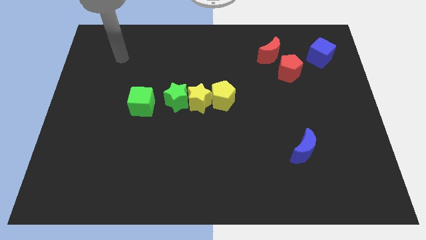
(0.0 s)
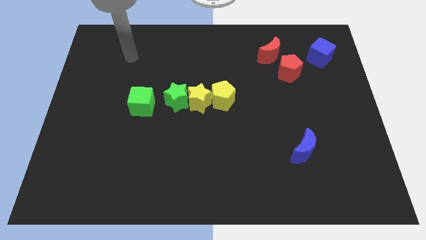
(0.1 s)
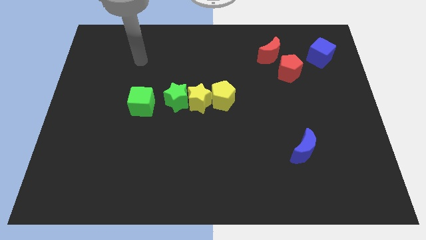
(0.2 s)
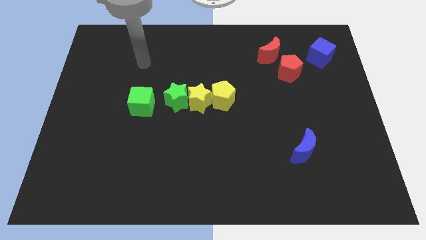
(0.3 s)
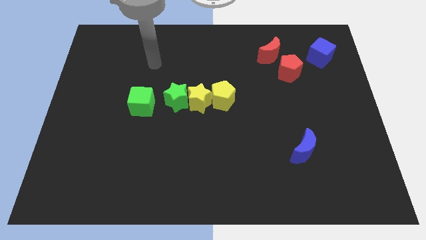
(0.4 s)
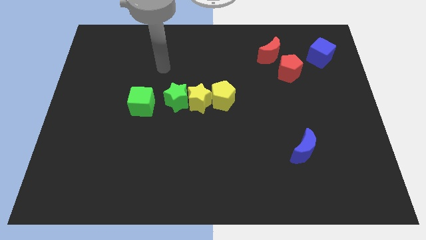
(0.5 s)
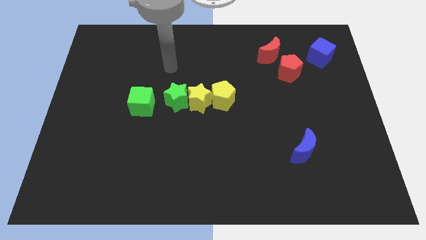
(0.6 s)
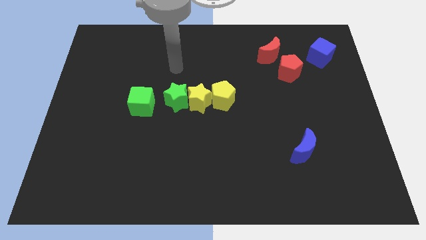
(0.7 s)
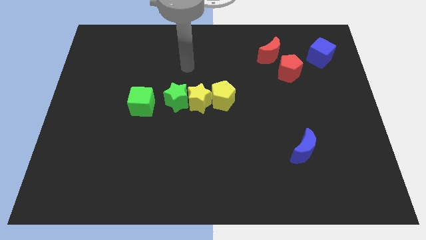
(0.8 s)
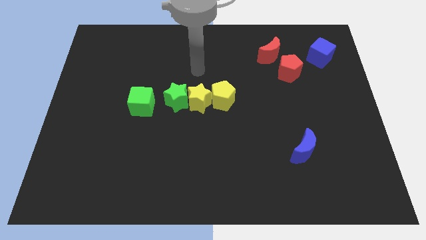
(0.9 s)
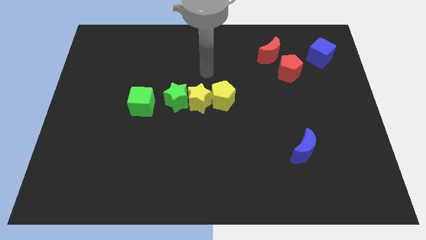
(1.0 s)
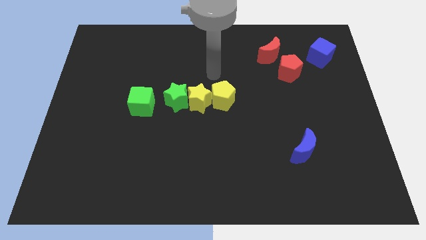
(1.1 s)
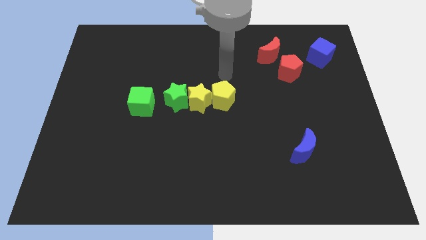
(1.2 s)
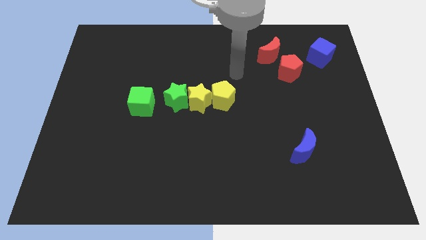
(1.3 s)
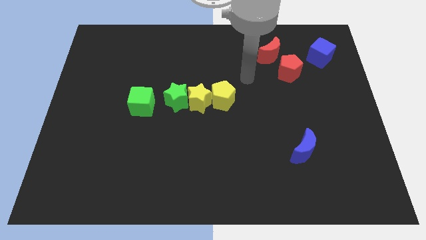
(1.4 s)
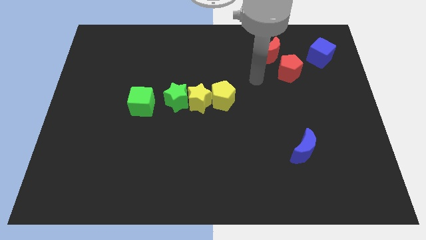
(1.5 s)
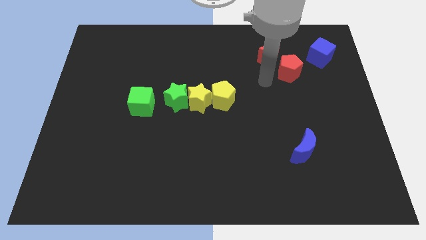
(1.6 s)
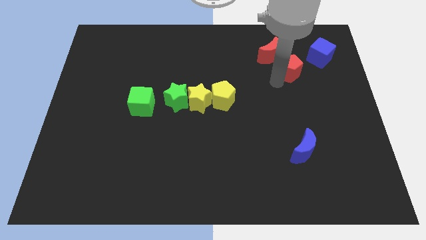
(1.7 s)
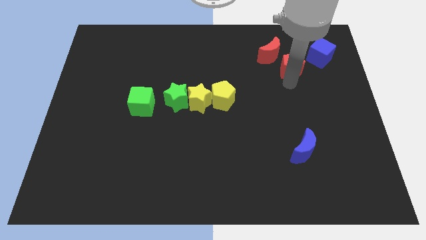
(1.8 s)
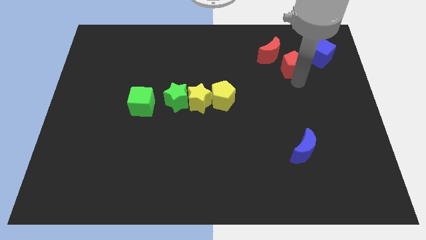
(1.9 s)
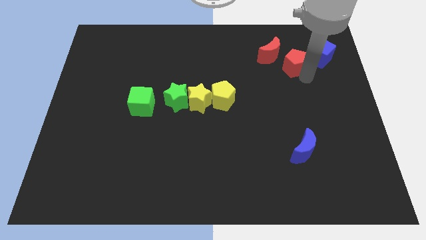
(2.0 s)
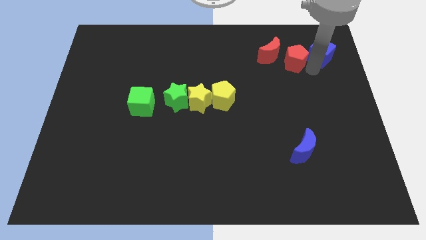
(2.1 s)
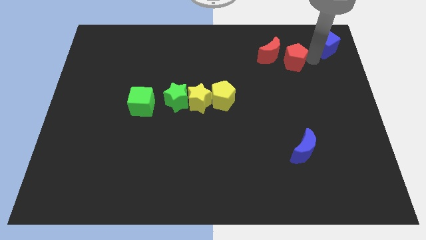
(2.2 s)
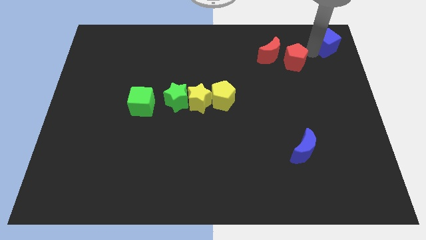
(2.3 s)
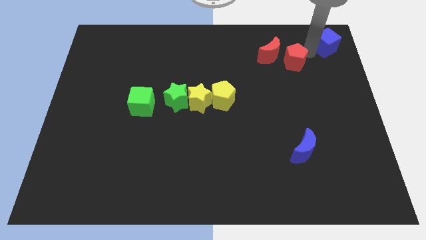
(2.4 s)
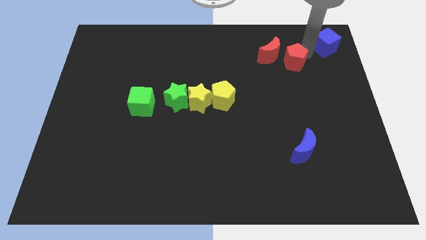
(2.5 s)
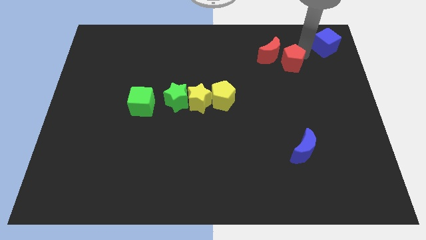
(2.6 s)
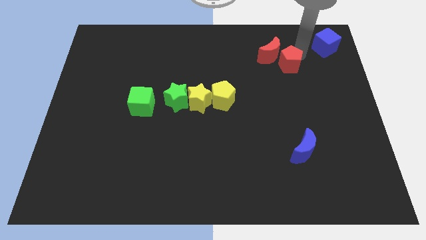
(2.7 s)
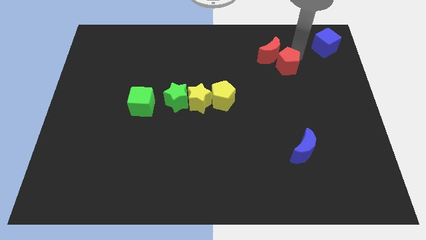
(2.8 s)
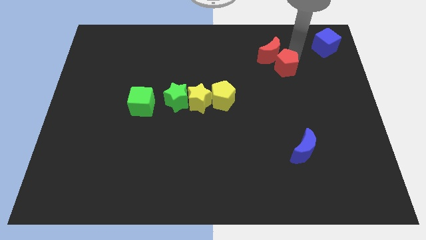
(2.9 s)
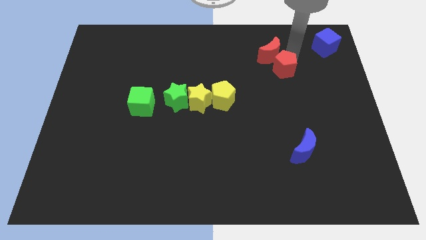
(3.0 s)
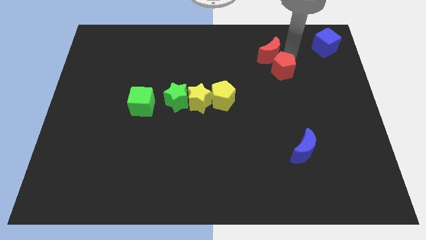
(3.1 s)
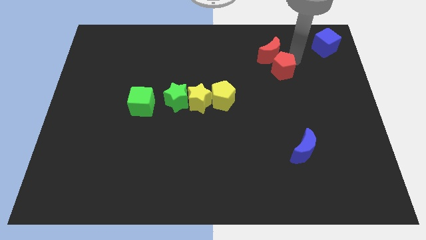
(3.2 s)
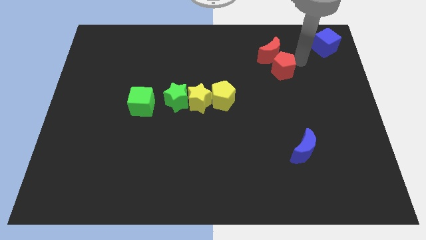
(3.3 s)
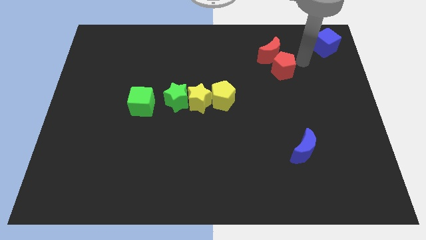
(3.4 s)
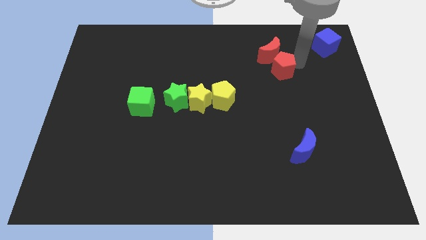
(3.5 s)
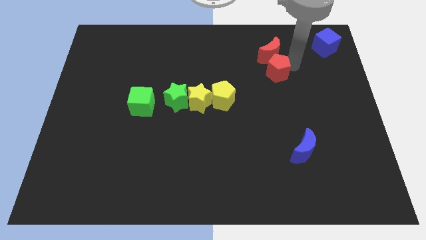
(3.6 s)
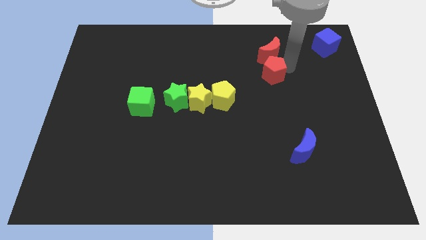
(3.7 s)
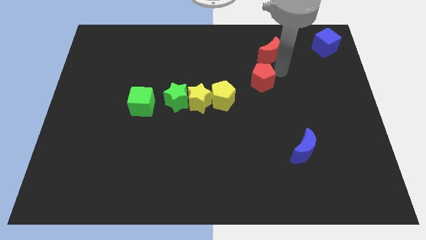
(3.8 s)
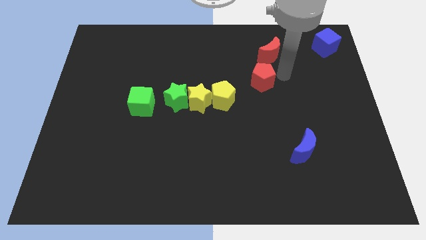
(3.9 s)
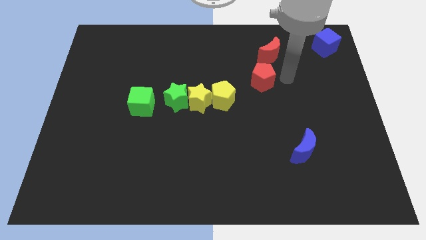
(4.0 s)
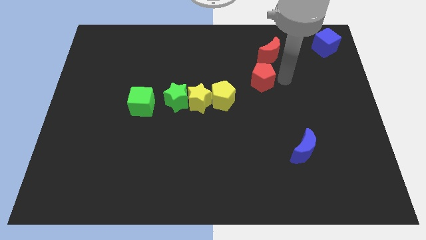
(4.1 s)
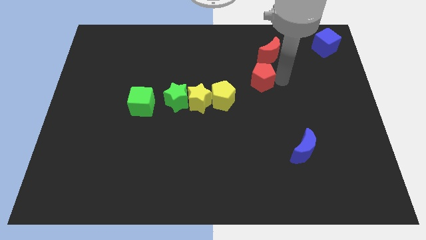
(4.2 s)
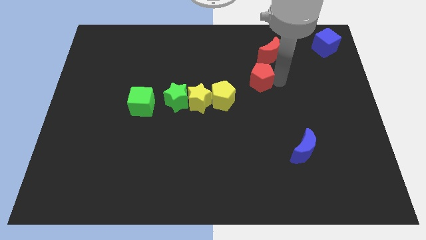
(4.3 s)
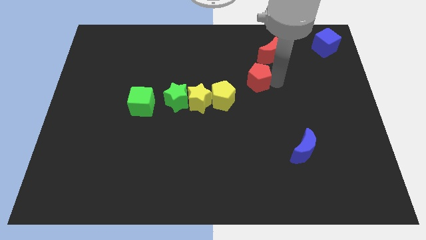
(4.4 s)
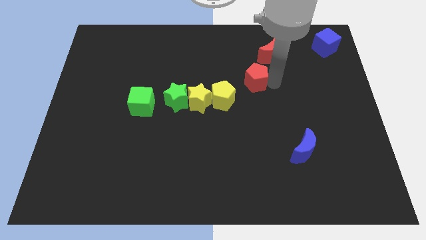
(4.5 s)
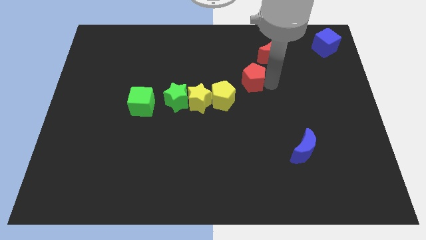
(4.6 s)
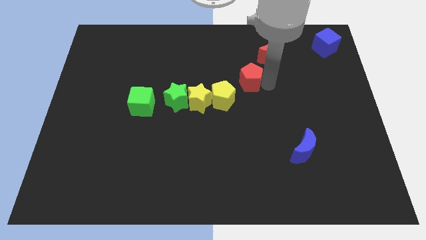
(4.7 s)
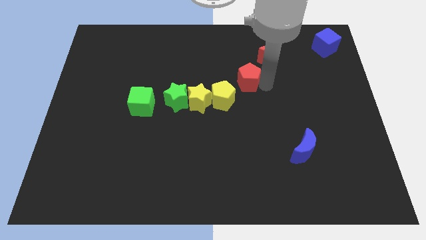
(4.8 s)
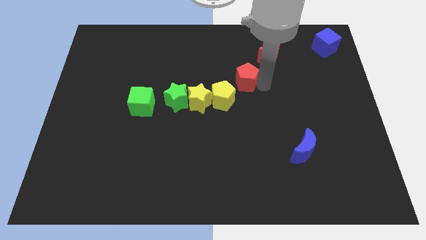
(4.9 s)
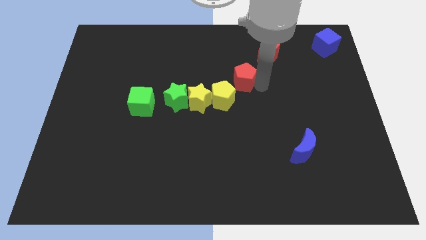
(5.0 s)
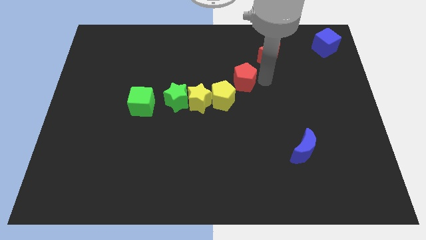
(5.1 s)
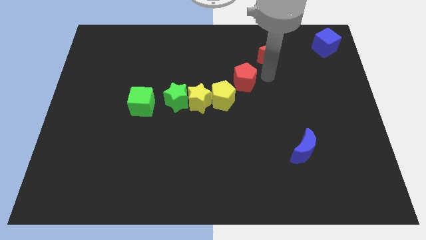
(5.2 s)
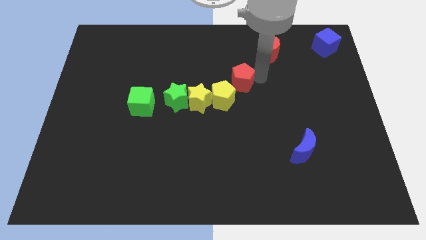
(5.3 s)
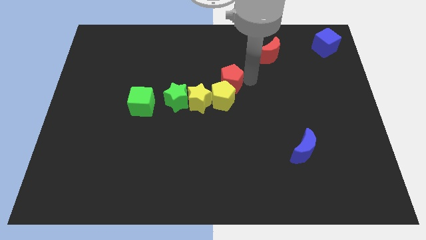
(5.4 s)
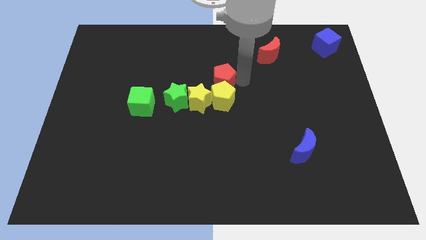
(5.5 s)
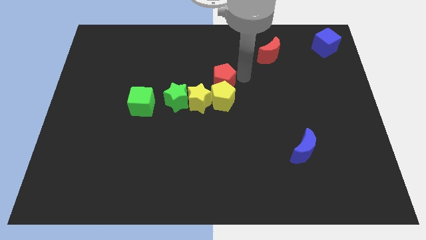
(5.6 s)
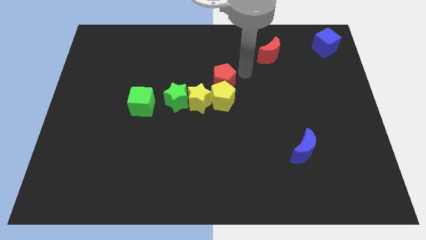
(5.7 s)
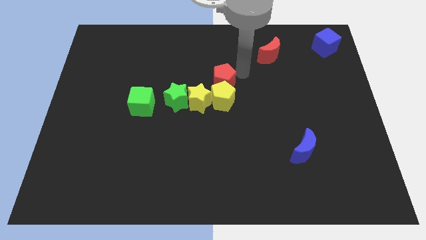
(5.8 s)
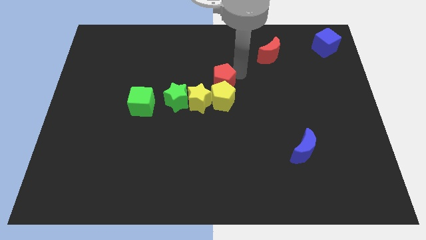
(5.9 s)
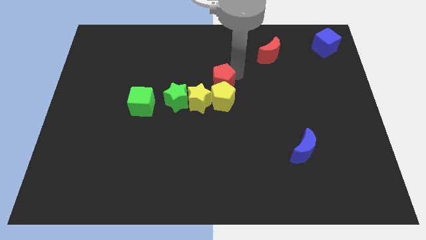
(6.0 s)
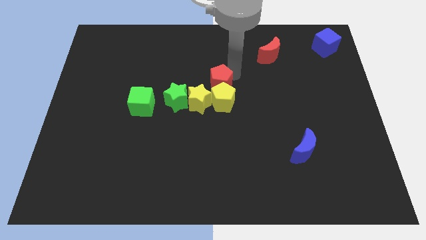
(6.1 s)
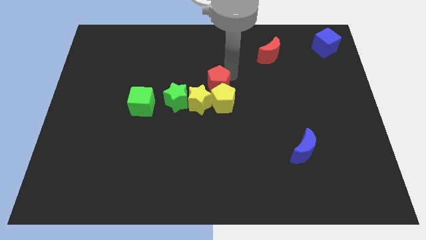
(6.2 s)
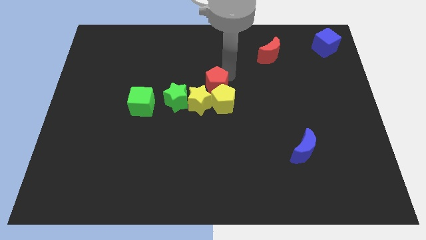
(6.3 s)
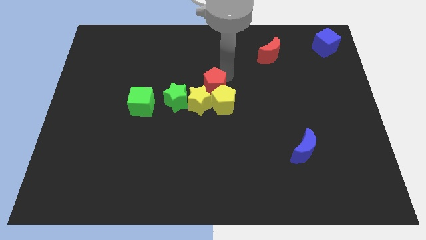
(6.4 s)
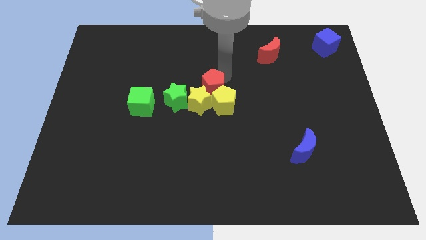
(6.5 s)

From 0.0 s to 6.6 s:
move the red pentagon close to the yellow star

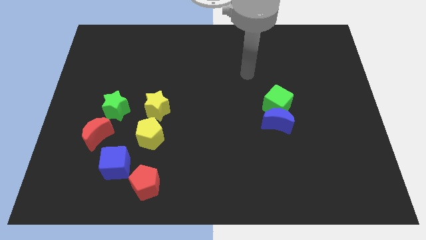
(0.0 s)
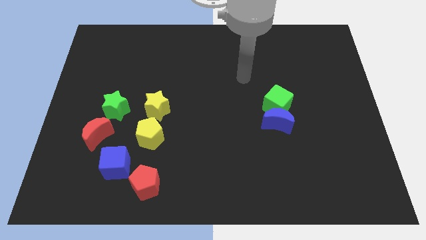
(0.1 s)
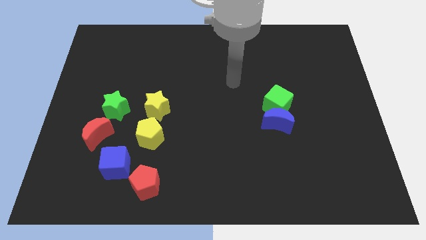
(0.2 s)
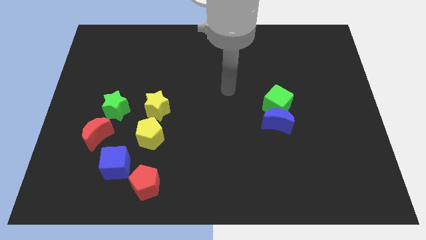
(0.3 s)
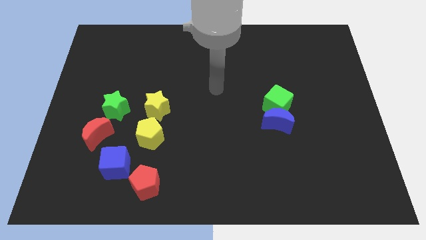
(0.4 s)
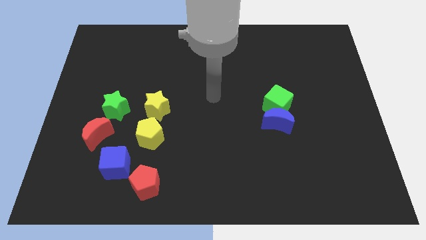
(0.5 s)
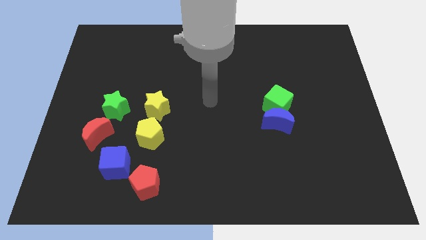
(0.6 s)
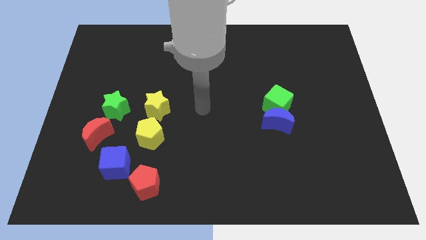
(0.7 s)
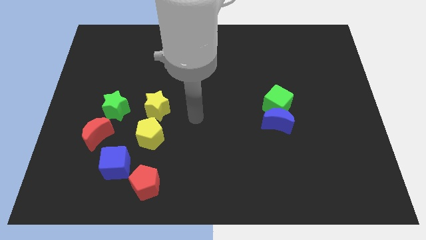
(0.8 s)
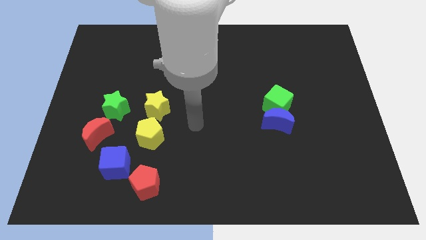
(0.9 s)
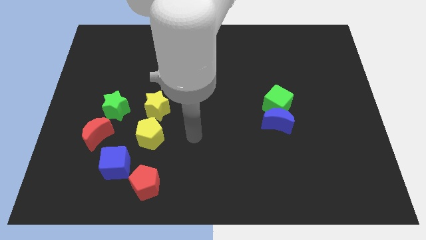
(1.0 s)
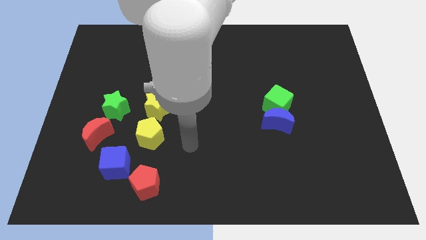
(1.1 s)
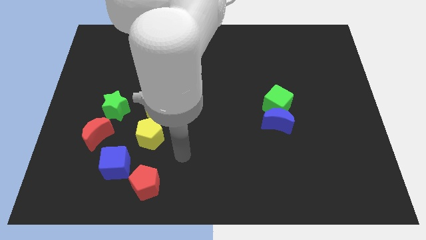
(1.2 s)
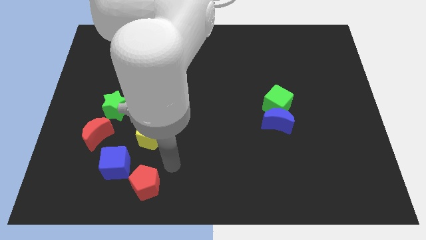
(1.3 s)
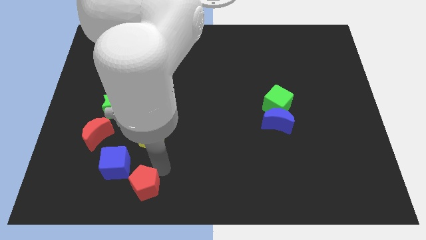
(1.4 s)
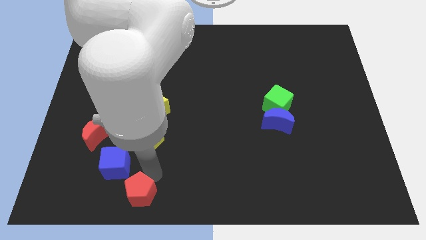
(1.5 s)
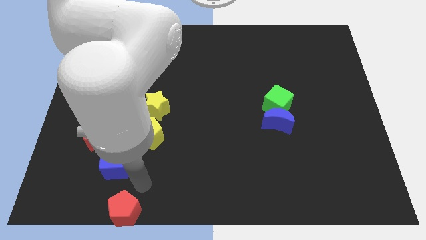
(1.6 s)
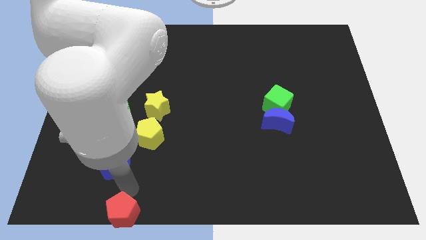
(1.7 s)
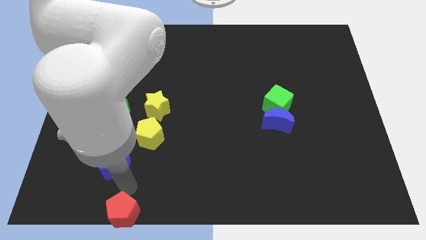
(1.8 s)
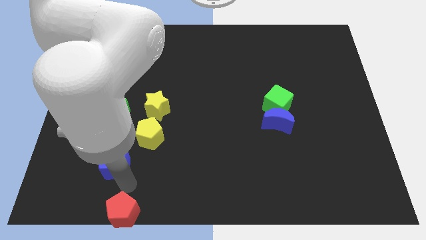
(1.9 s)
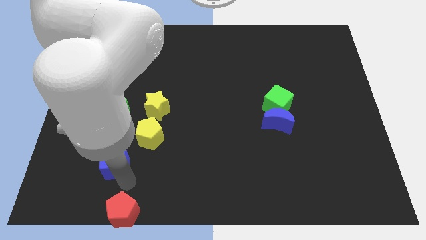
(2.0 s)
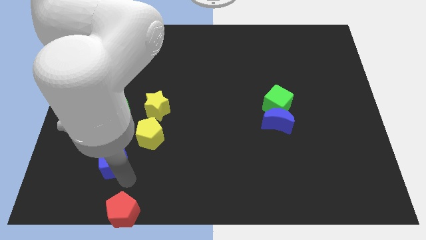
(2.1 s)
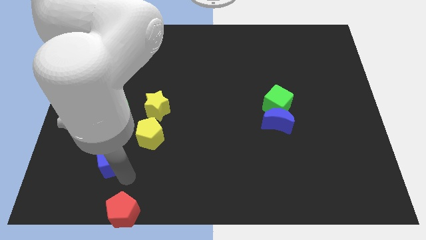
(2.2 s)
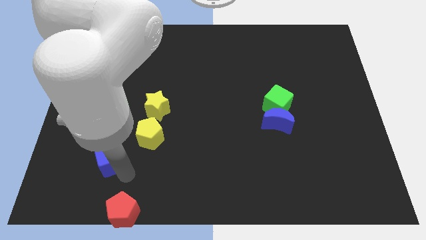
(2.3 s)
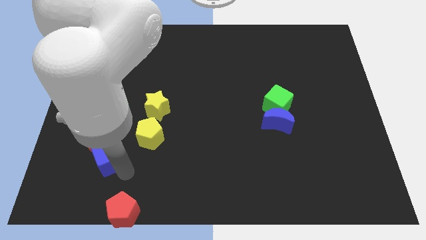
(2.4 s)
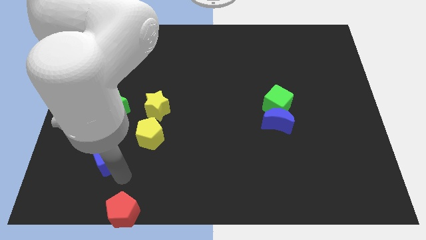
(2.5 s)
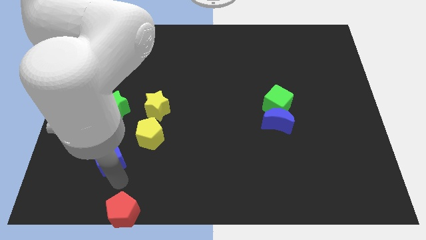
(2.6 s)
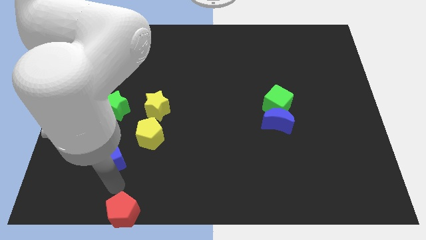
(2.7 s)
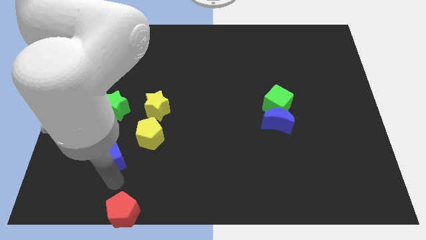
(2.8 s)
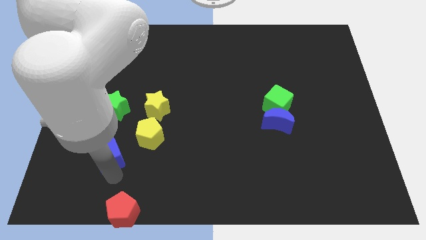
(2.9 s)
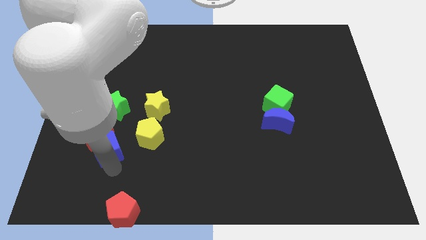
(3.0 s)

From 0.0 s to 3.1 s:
push the blue cube towards the red moon
